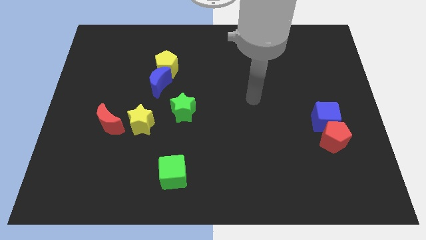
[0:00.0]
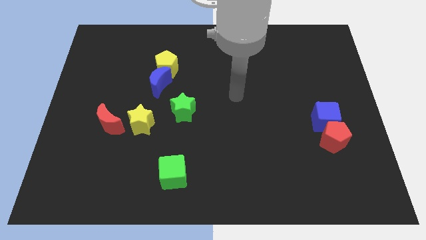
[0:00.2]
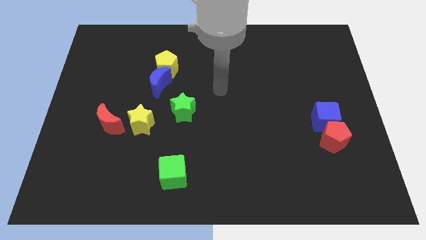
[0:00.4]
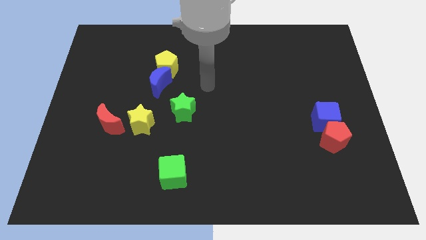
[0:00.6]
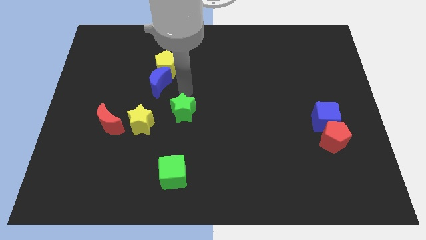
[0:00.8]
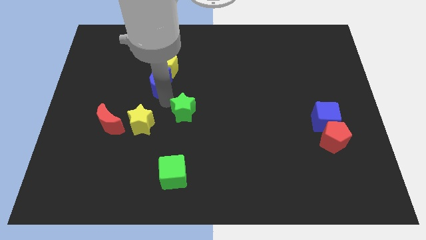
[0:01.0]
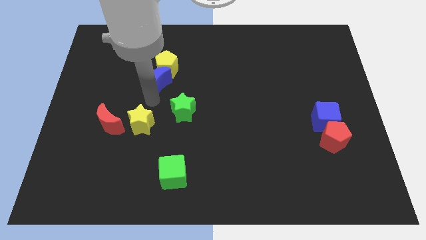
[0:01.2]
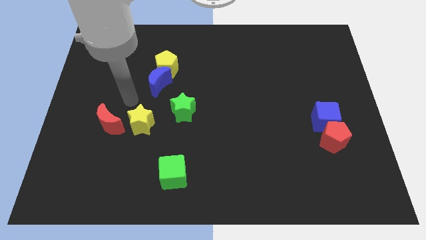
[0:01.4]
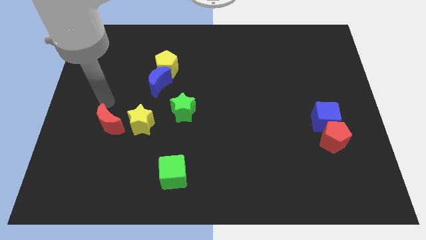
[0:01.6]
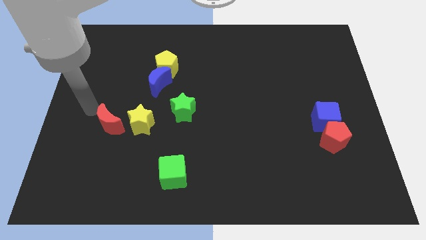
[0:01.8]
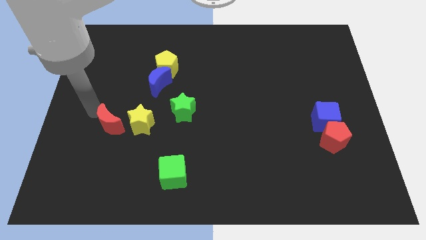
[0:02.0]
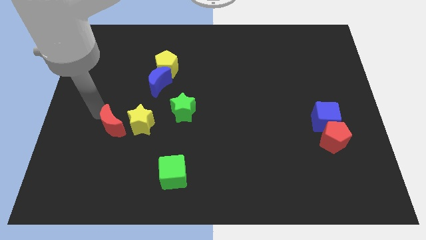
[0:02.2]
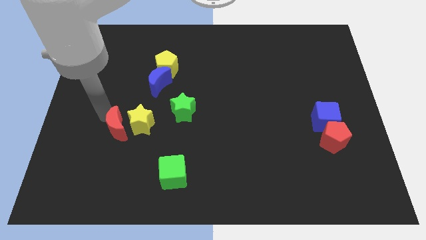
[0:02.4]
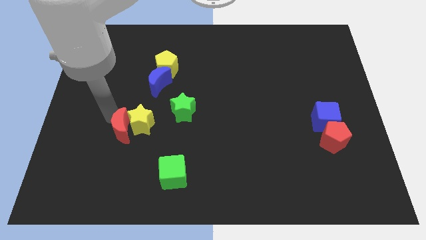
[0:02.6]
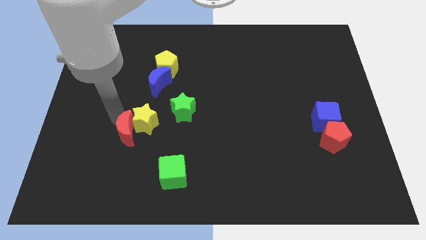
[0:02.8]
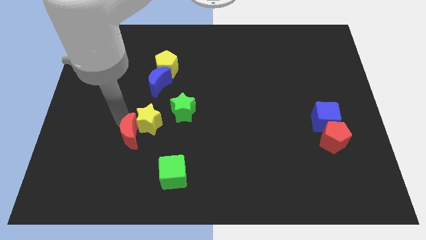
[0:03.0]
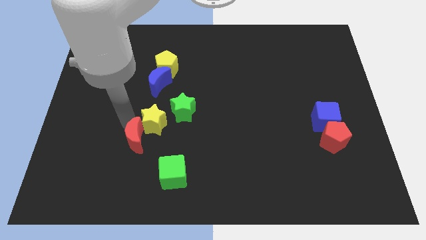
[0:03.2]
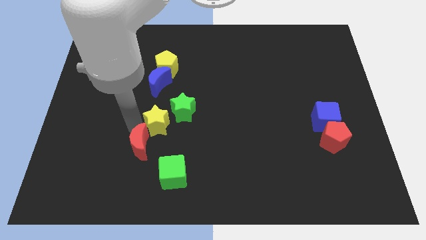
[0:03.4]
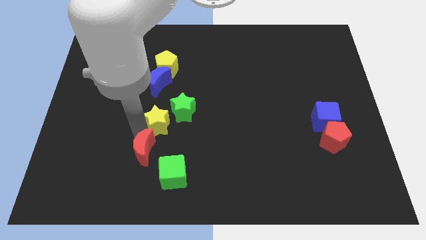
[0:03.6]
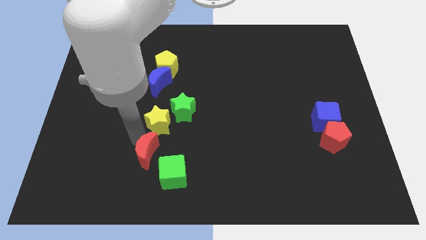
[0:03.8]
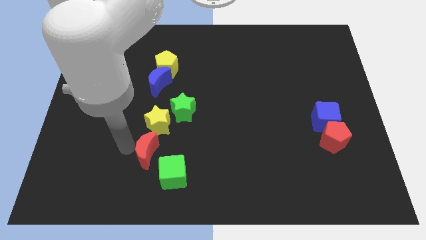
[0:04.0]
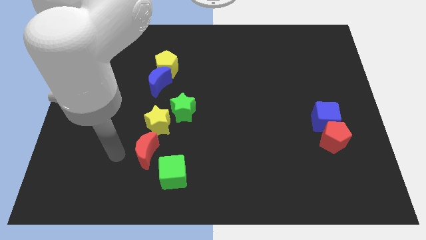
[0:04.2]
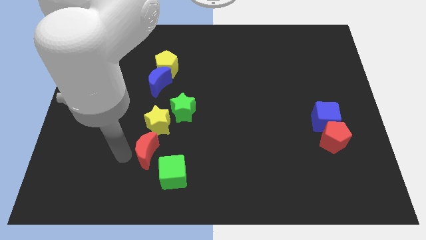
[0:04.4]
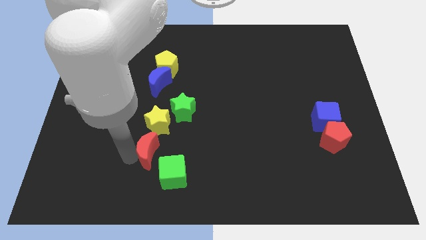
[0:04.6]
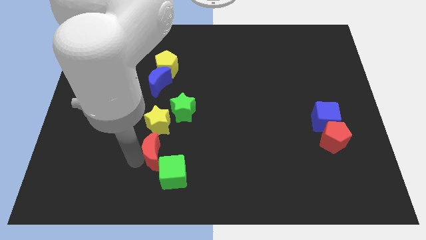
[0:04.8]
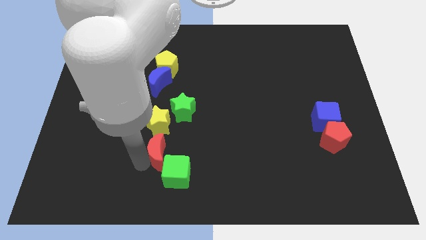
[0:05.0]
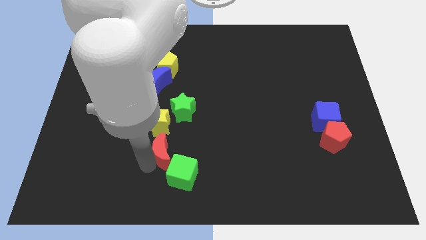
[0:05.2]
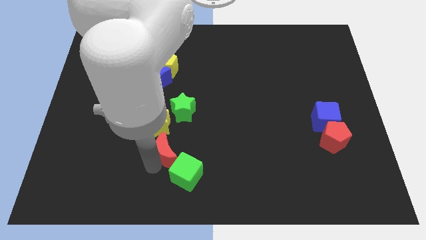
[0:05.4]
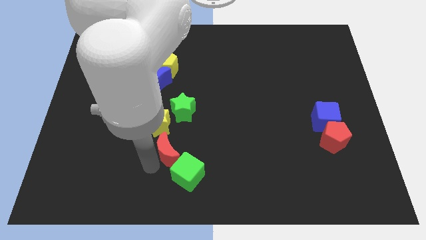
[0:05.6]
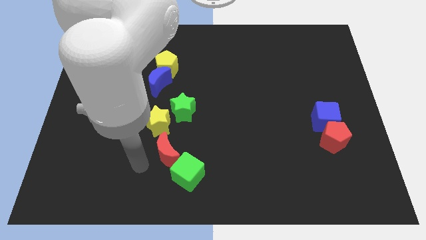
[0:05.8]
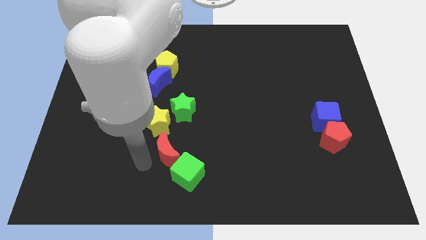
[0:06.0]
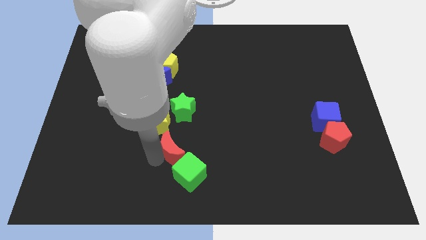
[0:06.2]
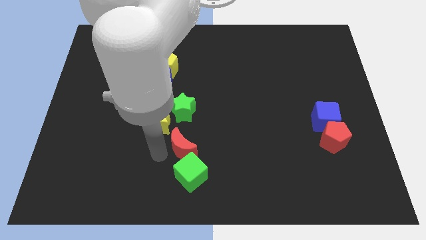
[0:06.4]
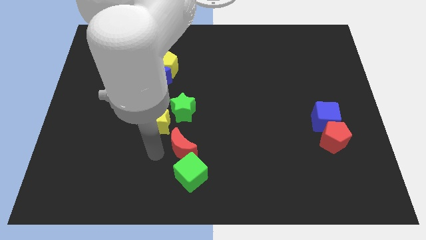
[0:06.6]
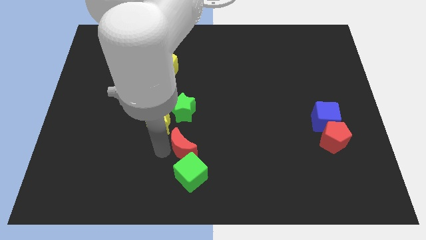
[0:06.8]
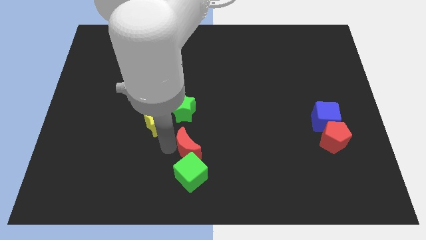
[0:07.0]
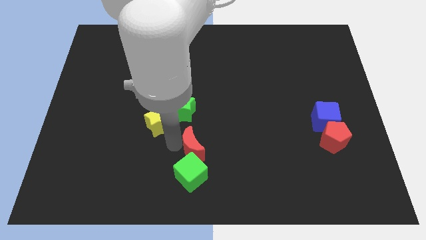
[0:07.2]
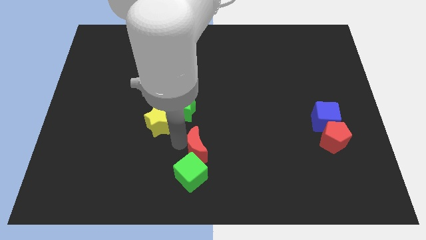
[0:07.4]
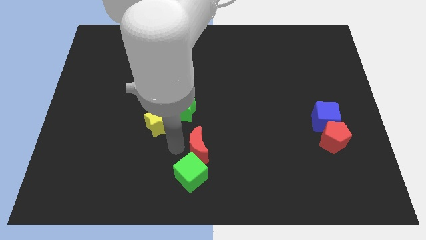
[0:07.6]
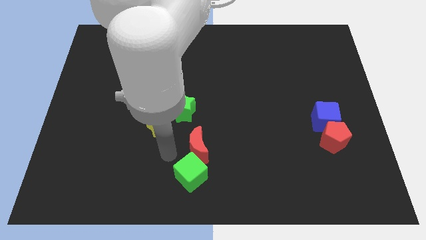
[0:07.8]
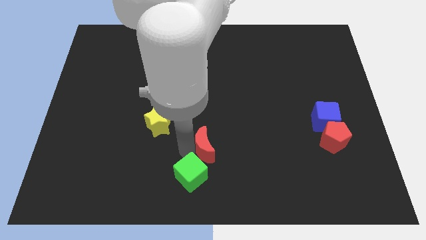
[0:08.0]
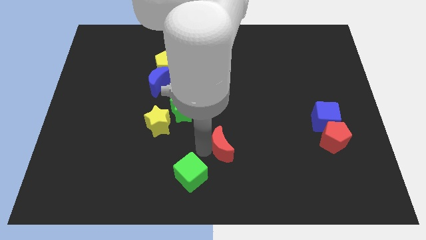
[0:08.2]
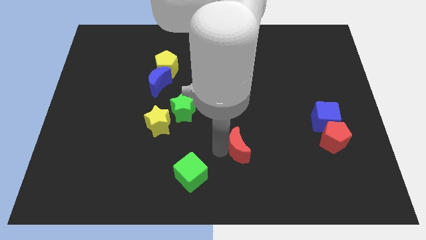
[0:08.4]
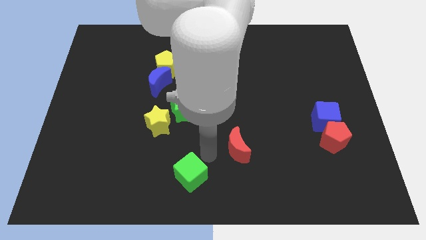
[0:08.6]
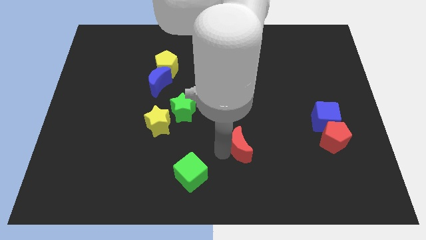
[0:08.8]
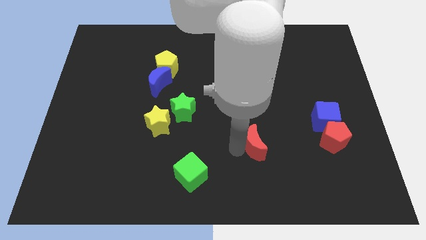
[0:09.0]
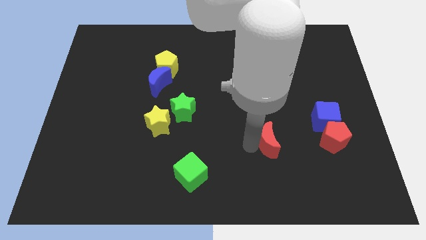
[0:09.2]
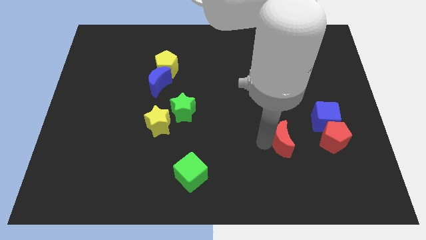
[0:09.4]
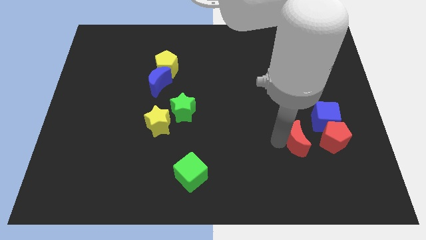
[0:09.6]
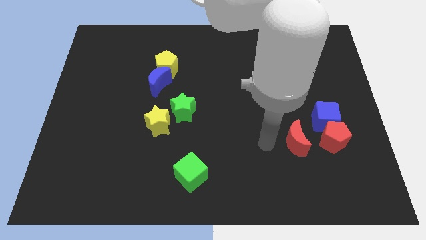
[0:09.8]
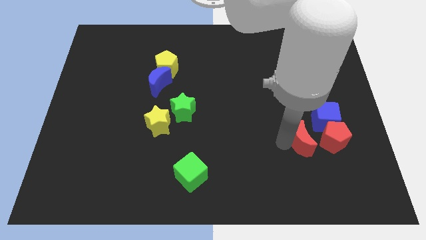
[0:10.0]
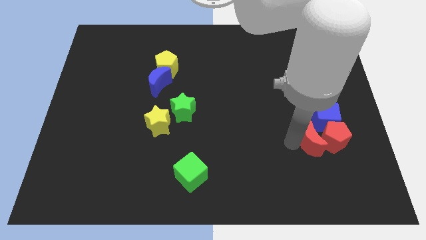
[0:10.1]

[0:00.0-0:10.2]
put the red moon next to the red pentagon

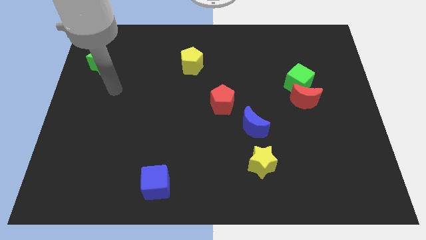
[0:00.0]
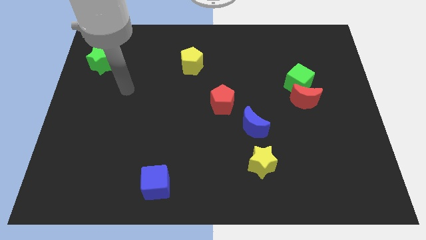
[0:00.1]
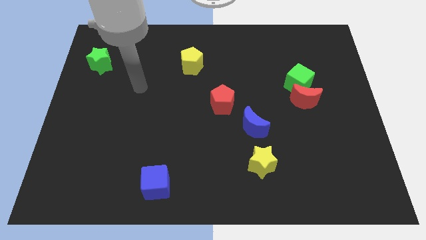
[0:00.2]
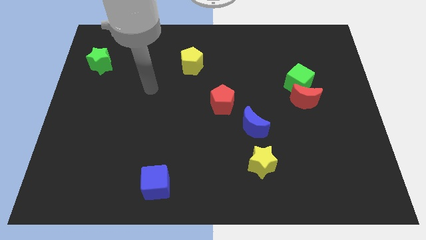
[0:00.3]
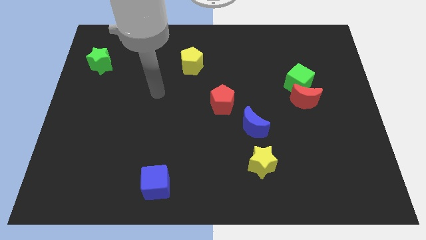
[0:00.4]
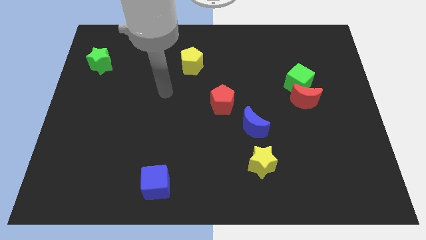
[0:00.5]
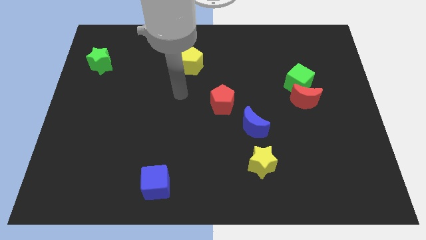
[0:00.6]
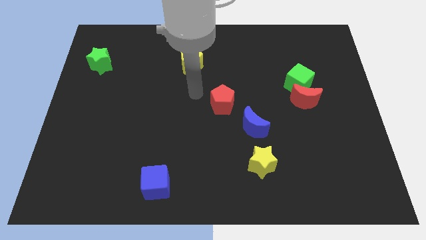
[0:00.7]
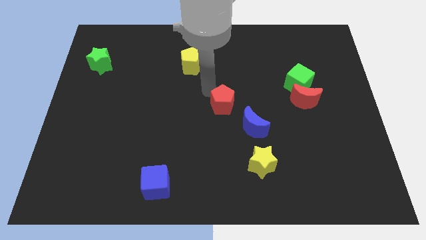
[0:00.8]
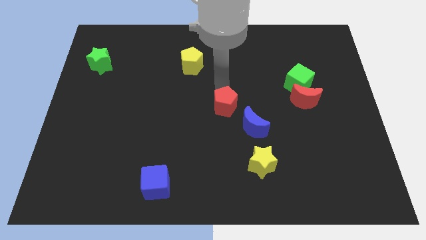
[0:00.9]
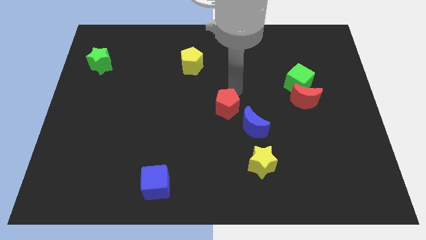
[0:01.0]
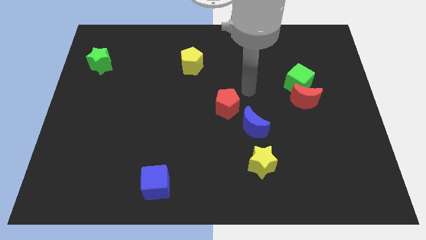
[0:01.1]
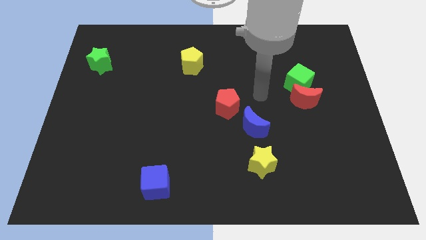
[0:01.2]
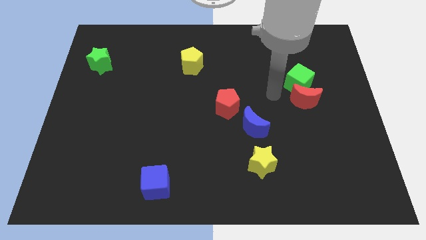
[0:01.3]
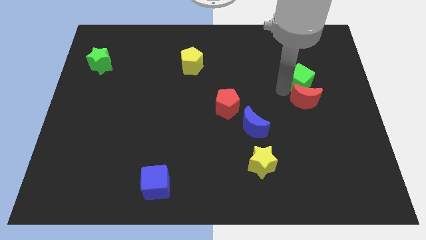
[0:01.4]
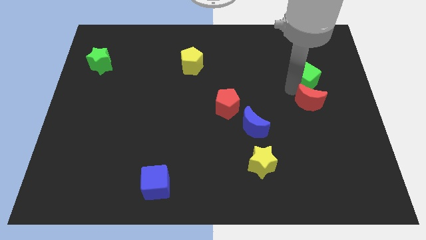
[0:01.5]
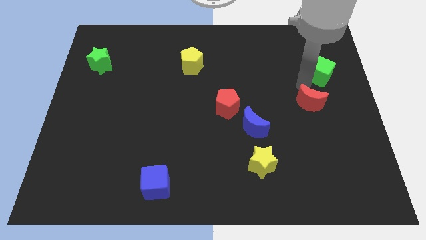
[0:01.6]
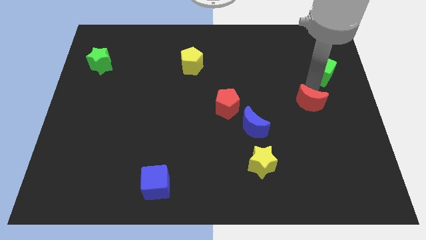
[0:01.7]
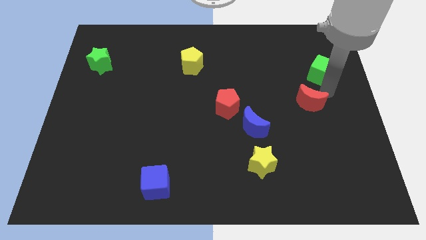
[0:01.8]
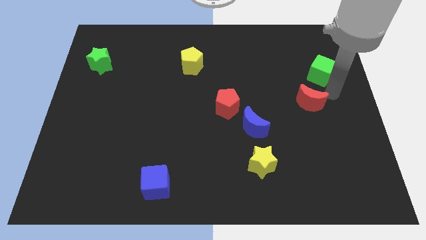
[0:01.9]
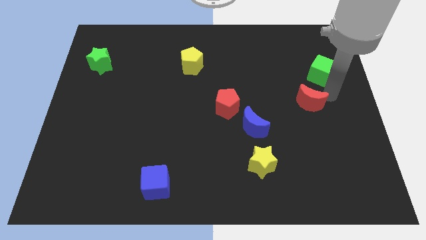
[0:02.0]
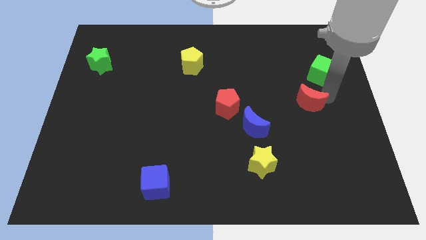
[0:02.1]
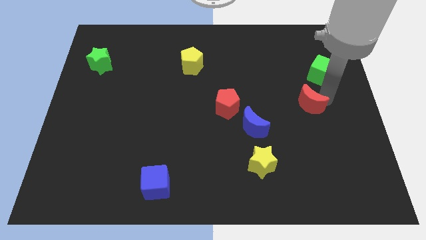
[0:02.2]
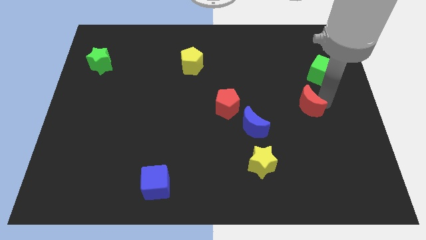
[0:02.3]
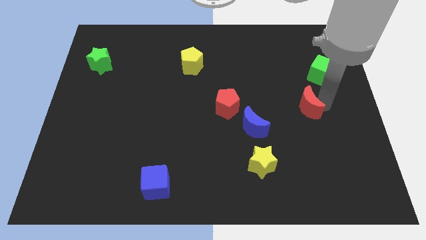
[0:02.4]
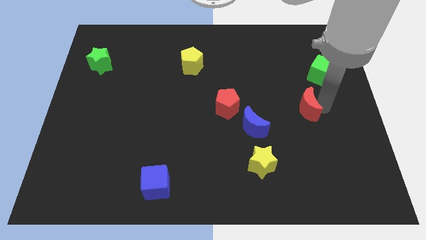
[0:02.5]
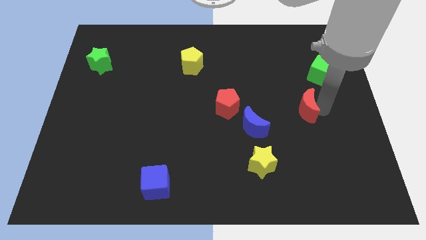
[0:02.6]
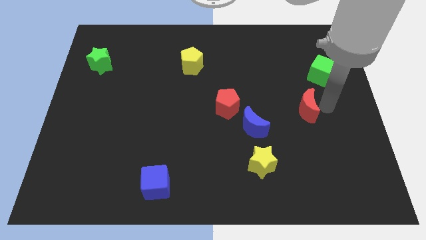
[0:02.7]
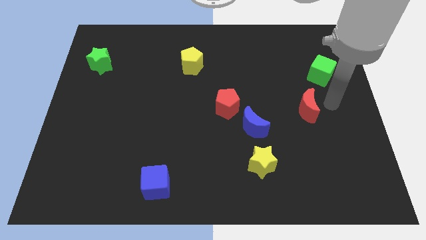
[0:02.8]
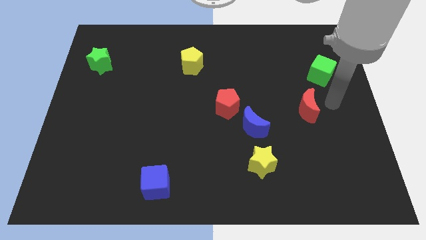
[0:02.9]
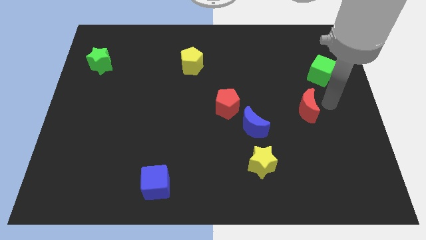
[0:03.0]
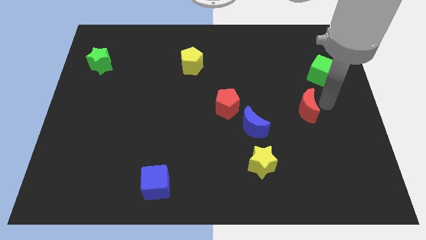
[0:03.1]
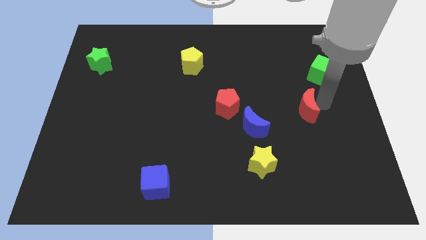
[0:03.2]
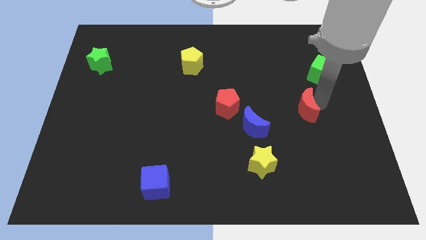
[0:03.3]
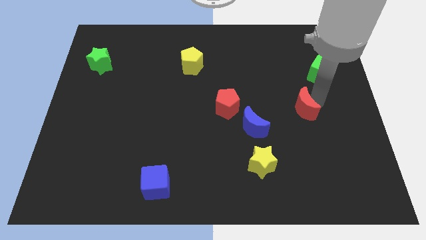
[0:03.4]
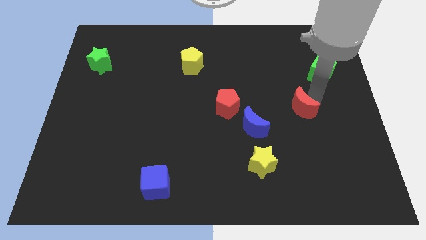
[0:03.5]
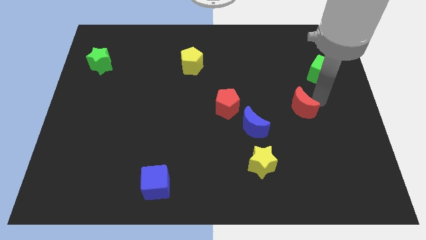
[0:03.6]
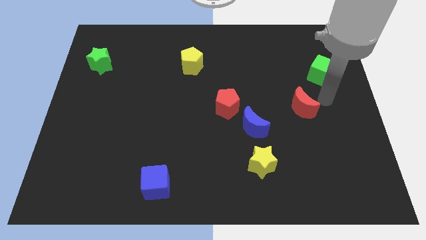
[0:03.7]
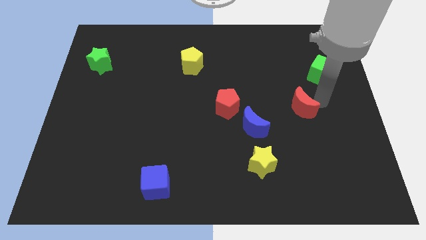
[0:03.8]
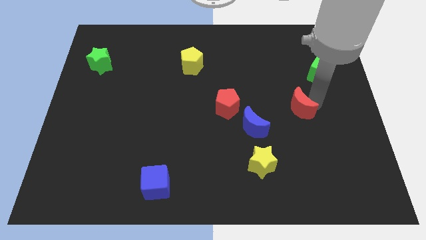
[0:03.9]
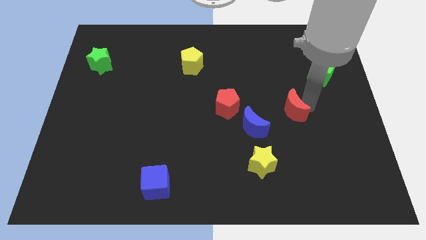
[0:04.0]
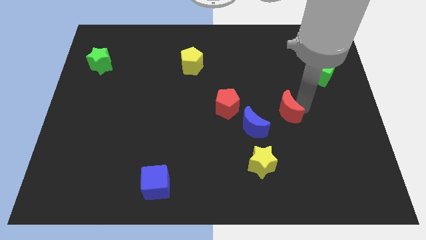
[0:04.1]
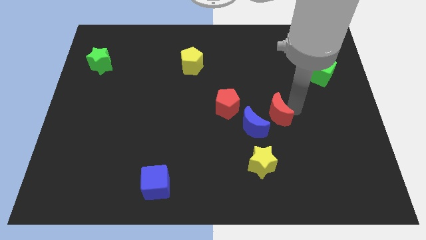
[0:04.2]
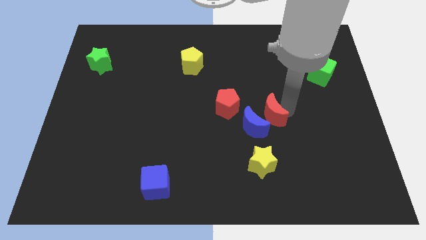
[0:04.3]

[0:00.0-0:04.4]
put the red moon to the blue moon
